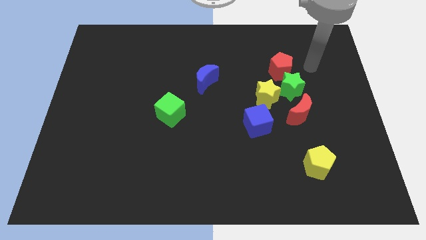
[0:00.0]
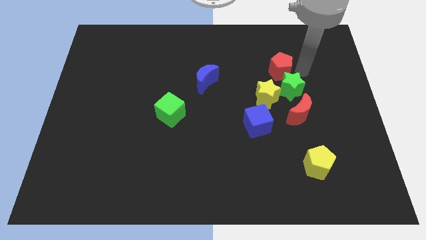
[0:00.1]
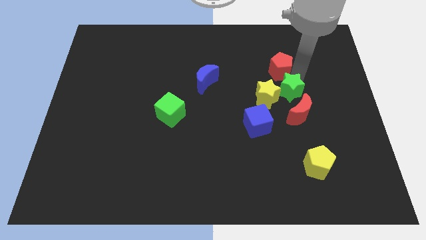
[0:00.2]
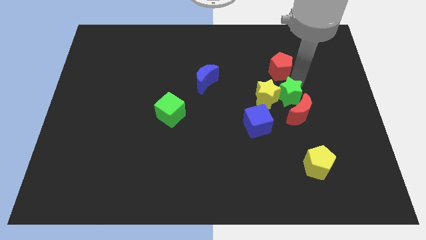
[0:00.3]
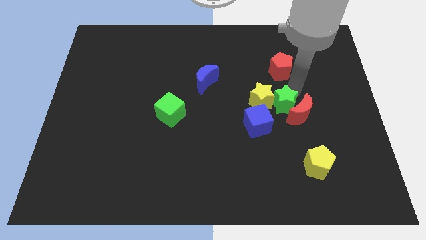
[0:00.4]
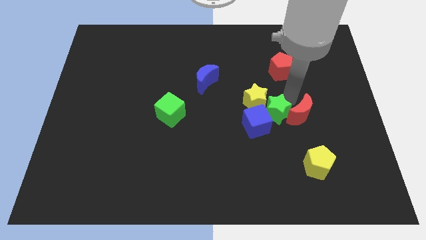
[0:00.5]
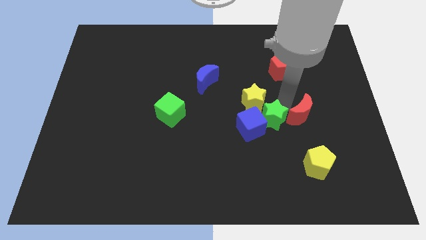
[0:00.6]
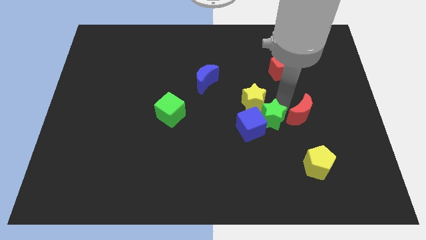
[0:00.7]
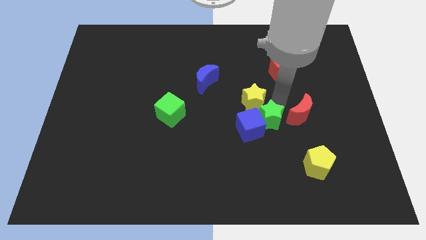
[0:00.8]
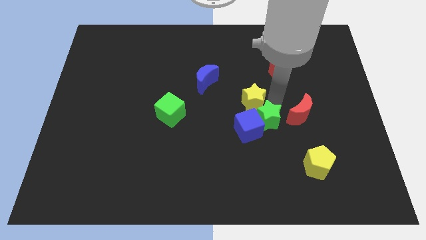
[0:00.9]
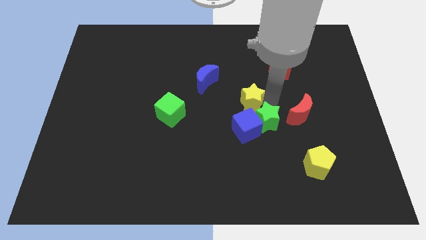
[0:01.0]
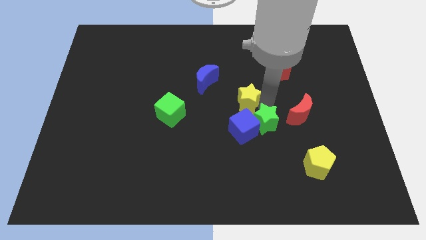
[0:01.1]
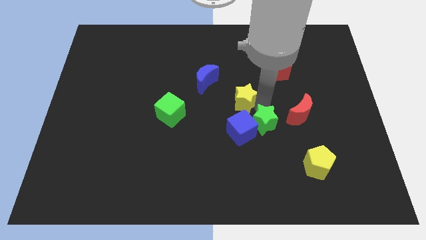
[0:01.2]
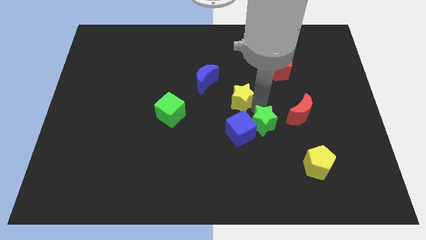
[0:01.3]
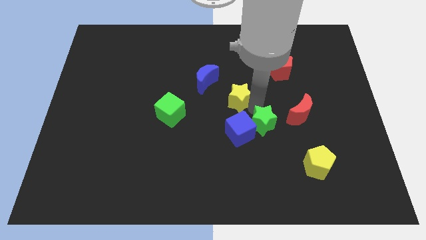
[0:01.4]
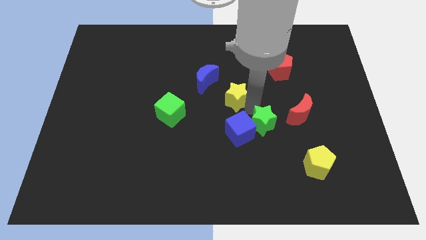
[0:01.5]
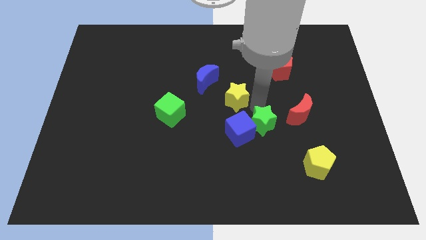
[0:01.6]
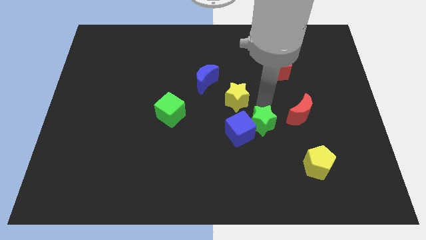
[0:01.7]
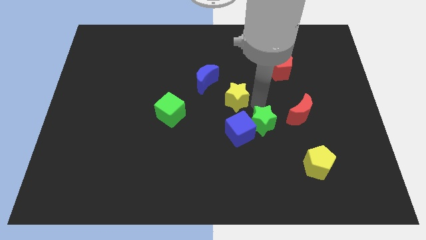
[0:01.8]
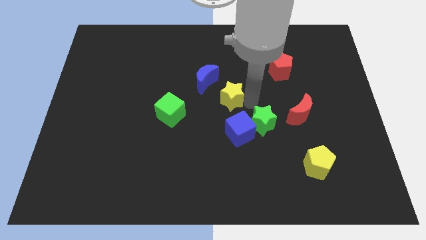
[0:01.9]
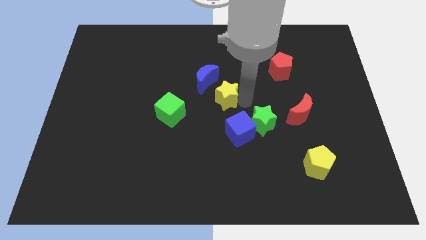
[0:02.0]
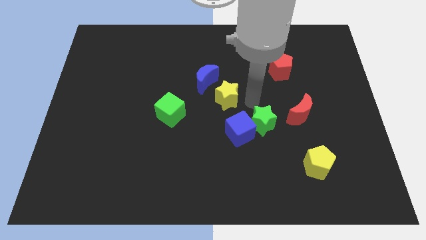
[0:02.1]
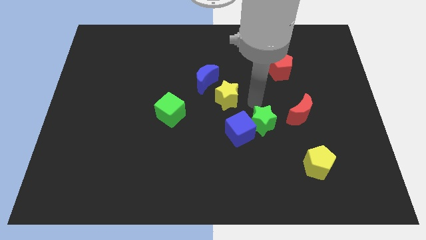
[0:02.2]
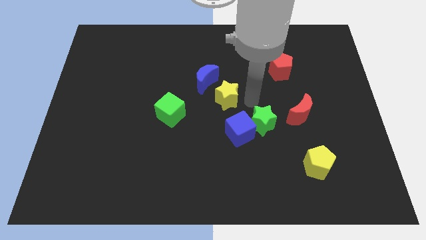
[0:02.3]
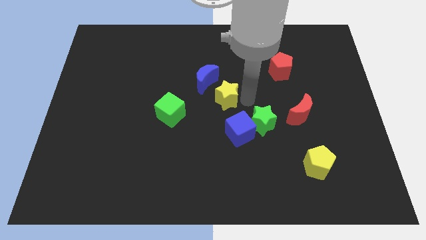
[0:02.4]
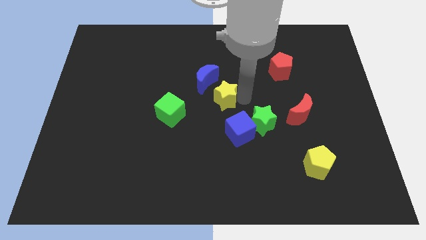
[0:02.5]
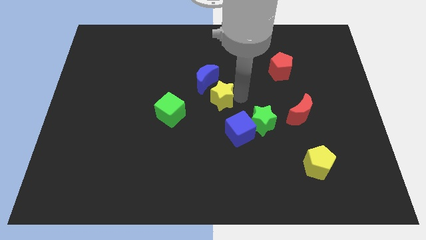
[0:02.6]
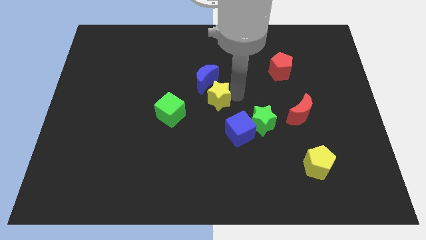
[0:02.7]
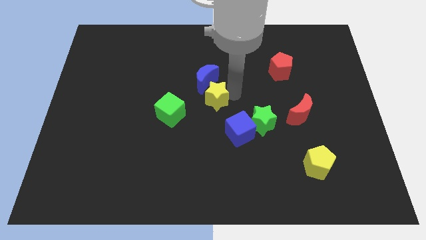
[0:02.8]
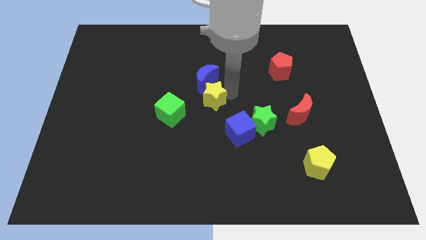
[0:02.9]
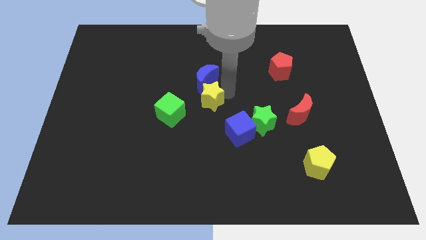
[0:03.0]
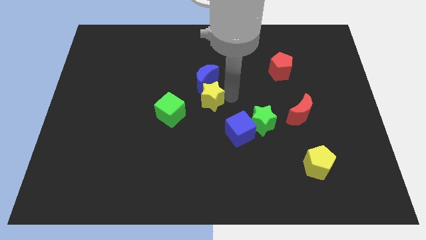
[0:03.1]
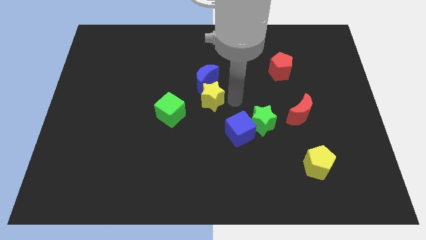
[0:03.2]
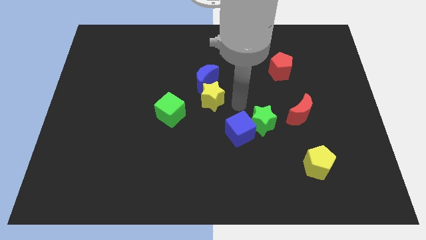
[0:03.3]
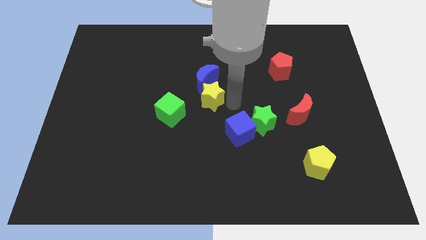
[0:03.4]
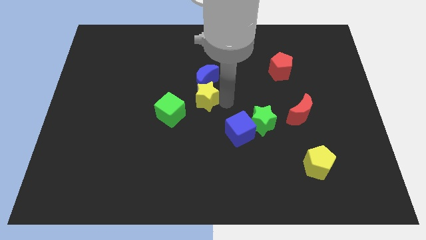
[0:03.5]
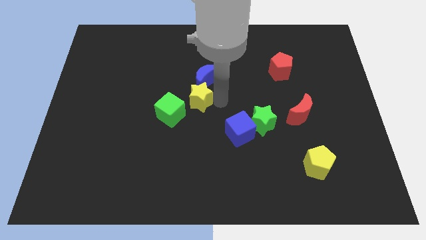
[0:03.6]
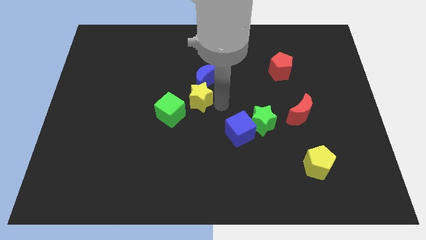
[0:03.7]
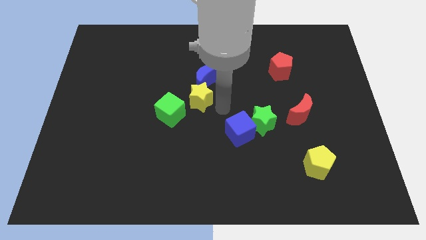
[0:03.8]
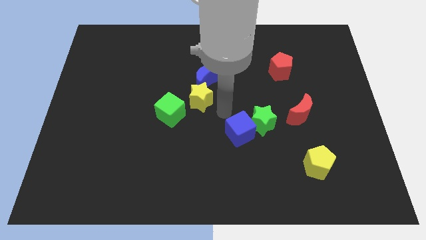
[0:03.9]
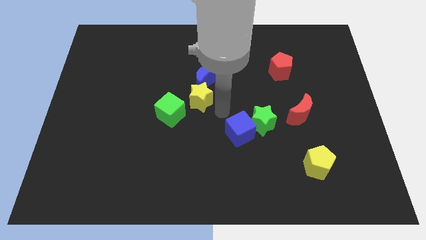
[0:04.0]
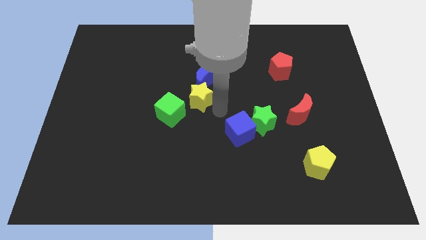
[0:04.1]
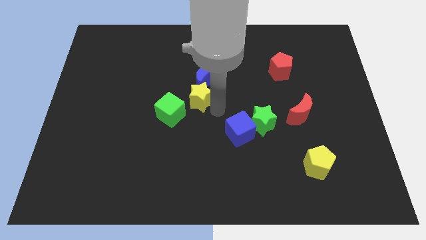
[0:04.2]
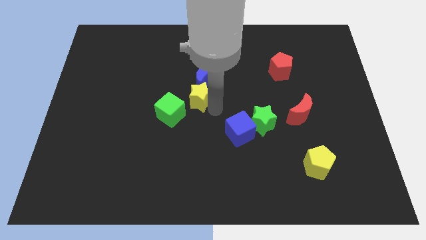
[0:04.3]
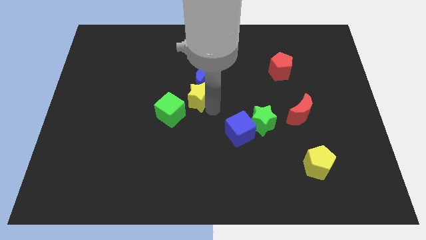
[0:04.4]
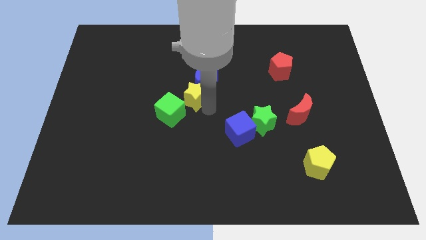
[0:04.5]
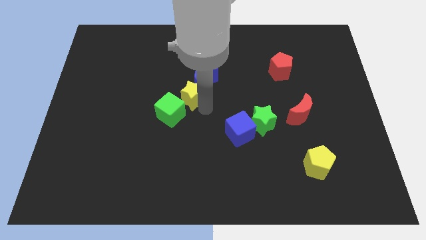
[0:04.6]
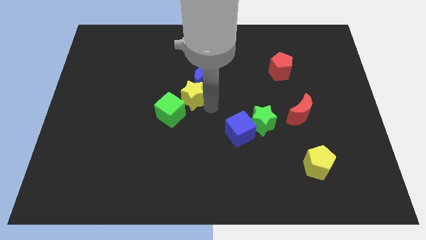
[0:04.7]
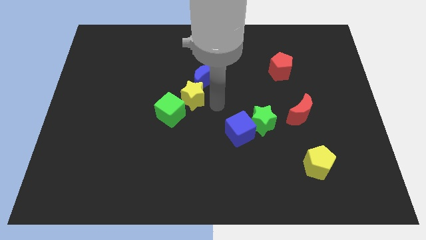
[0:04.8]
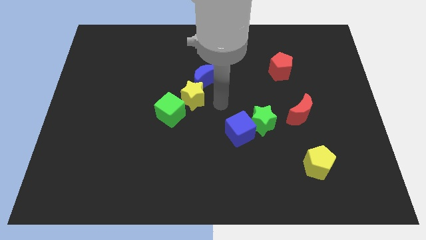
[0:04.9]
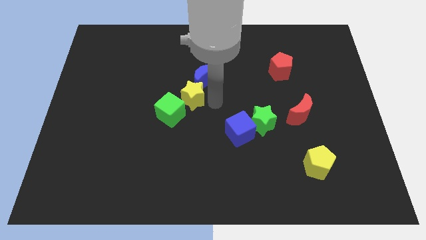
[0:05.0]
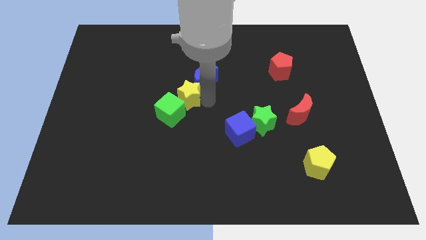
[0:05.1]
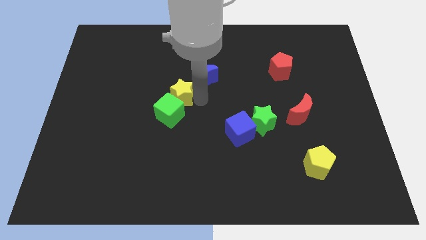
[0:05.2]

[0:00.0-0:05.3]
move the yellow star to the left

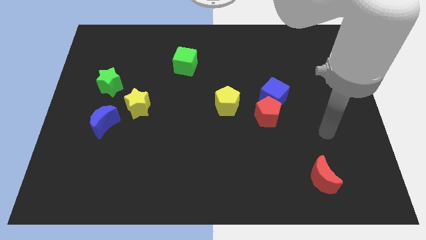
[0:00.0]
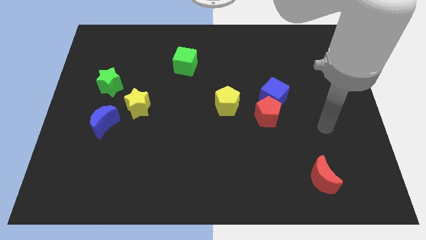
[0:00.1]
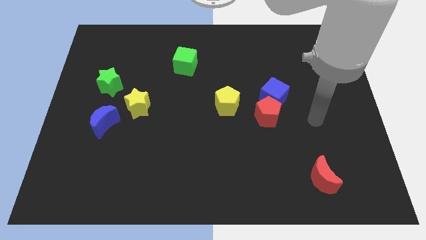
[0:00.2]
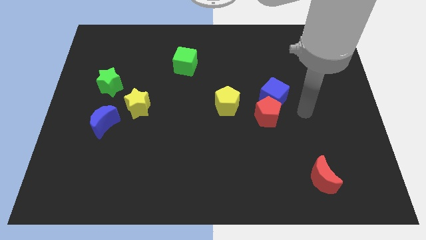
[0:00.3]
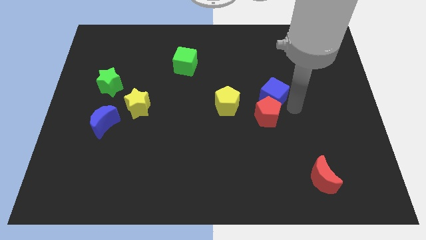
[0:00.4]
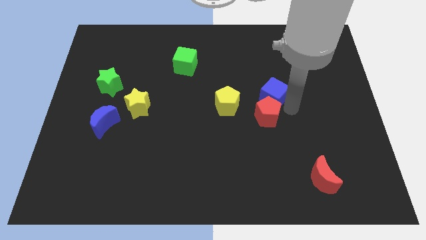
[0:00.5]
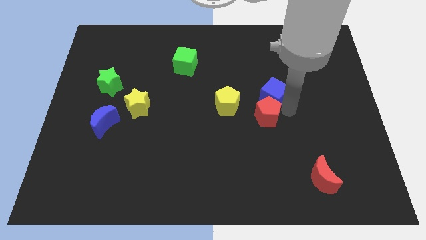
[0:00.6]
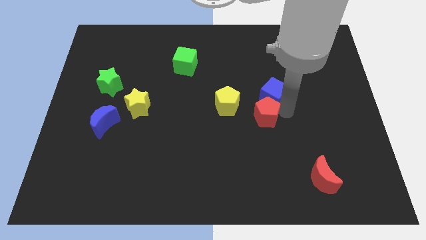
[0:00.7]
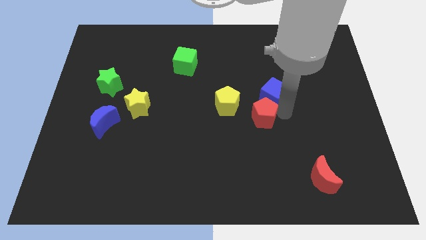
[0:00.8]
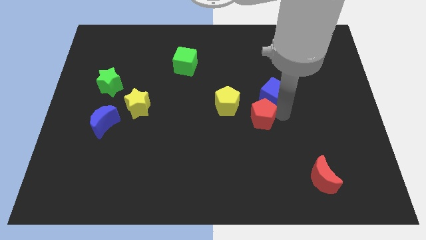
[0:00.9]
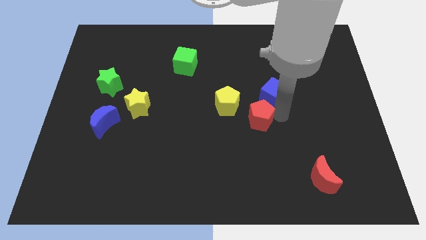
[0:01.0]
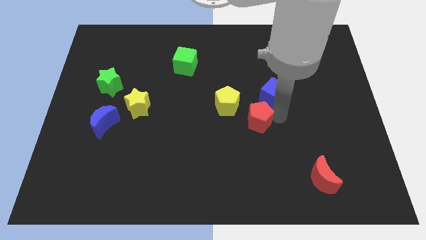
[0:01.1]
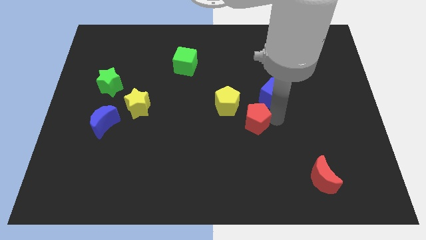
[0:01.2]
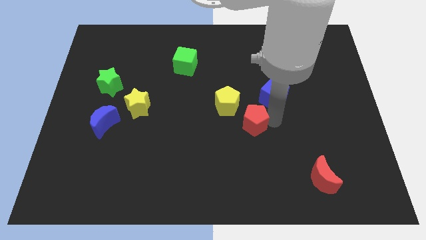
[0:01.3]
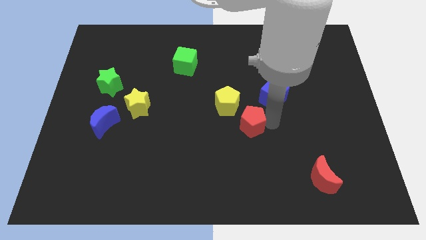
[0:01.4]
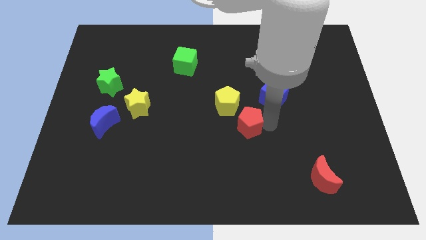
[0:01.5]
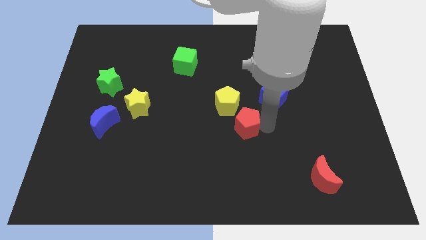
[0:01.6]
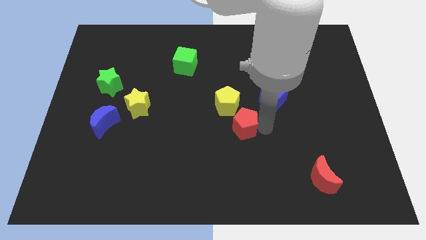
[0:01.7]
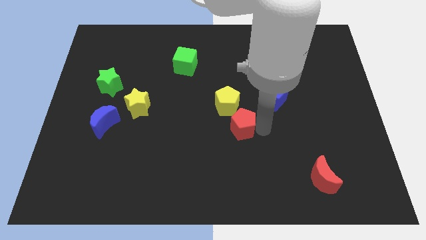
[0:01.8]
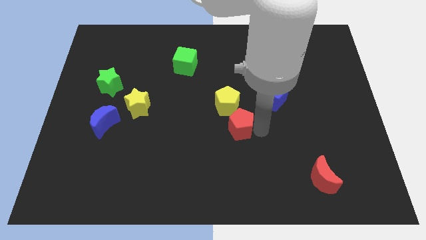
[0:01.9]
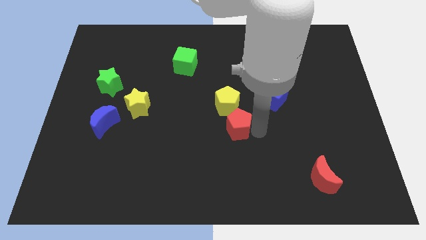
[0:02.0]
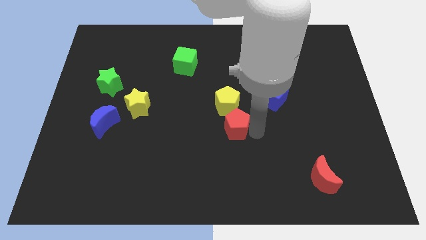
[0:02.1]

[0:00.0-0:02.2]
slide the red pentagon a little bit left

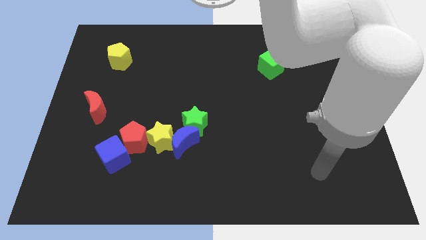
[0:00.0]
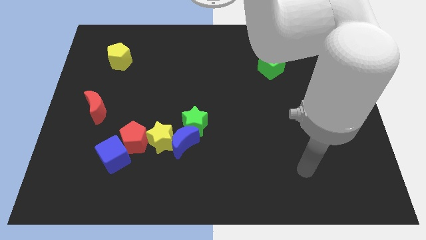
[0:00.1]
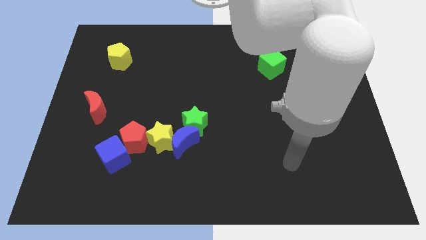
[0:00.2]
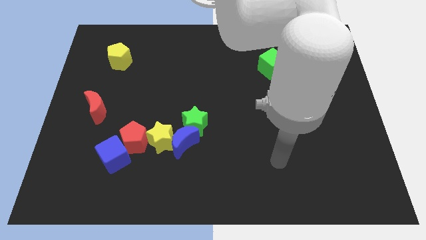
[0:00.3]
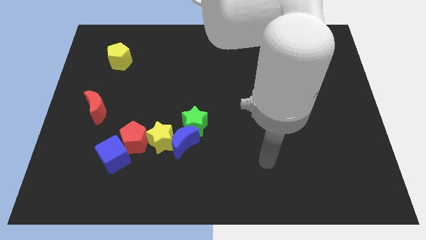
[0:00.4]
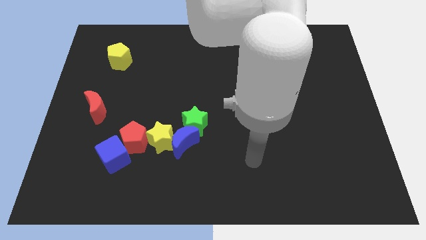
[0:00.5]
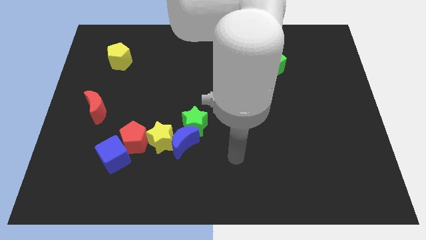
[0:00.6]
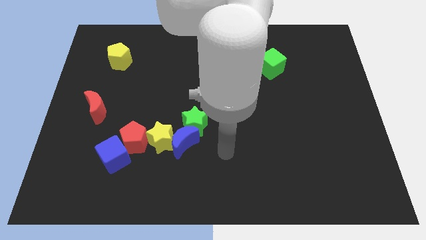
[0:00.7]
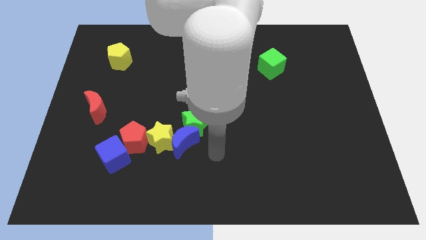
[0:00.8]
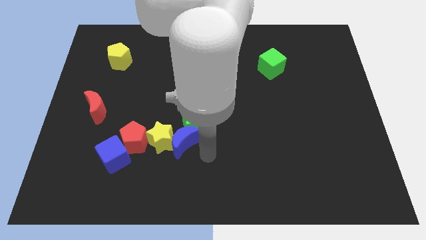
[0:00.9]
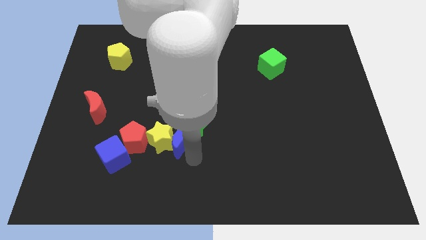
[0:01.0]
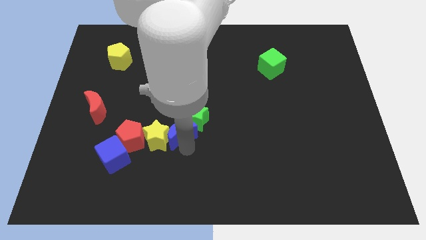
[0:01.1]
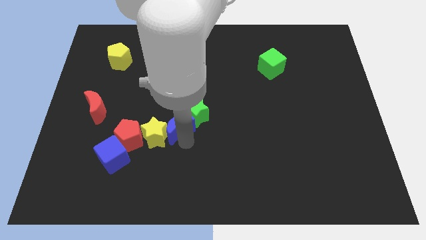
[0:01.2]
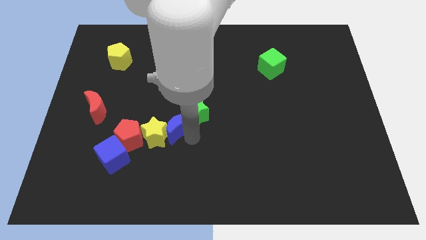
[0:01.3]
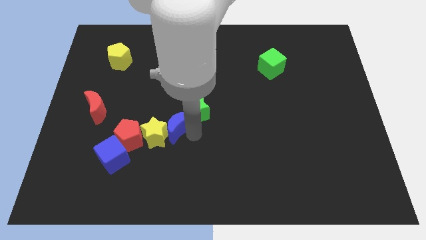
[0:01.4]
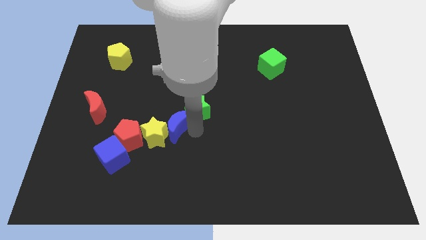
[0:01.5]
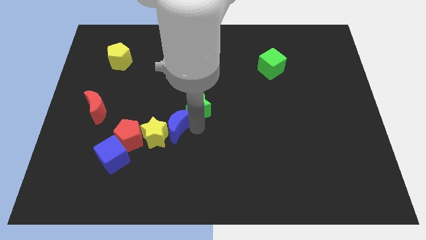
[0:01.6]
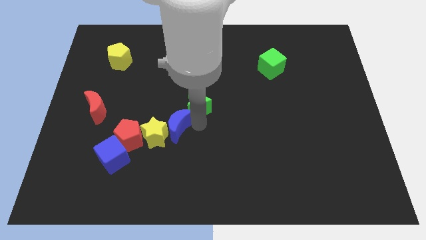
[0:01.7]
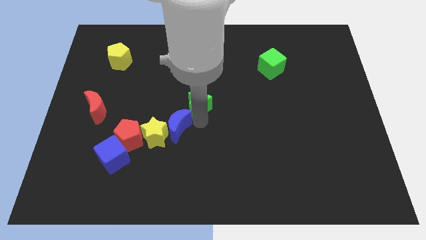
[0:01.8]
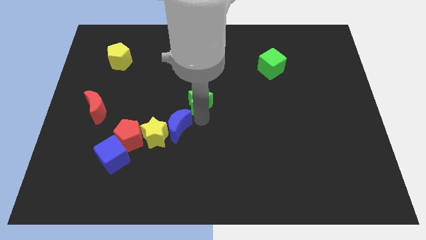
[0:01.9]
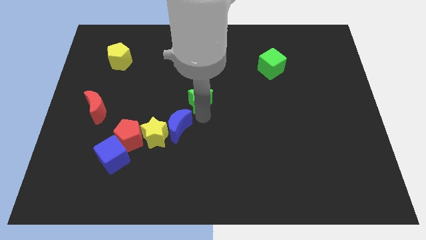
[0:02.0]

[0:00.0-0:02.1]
move the green star a bit up
